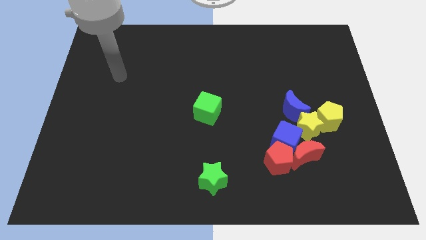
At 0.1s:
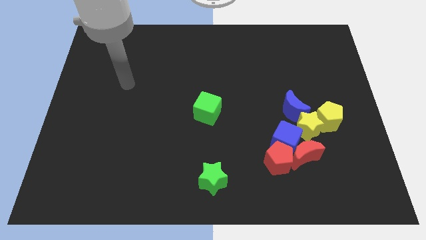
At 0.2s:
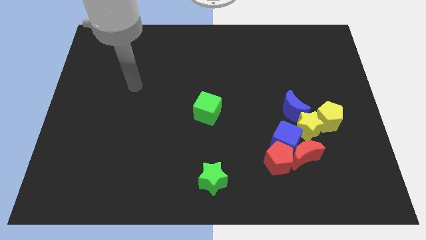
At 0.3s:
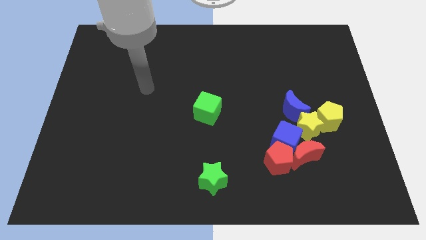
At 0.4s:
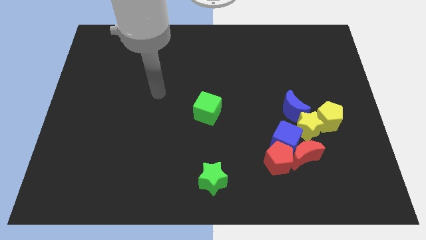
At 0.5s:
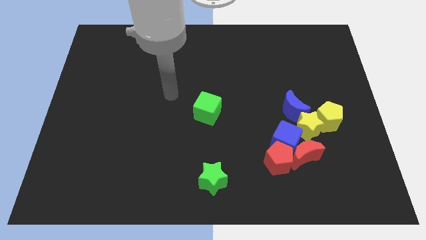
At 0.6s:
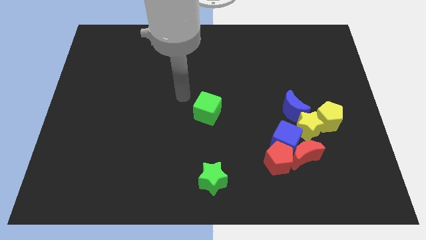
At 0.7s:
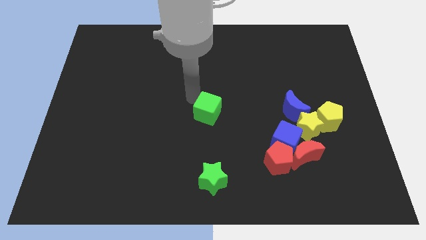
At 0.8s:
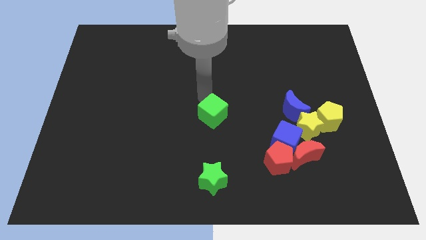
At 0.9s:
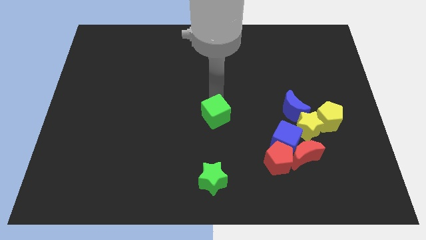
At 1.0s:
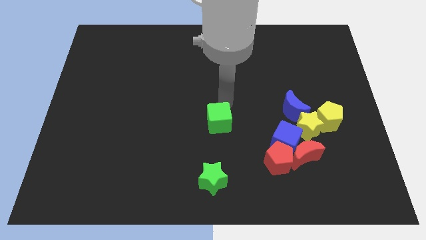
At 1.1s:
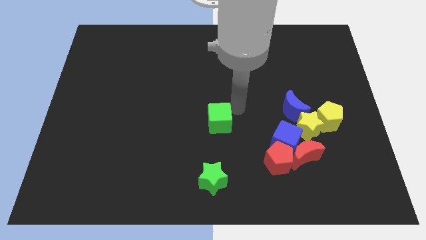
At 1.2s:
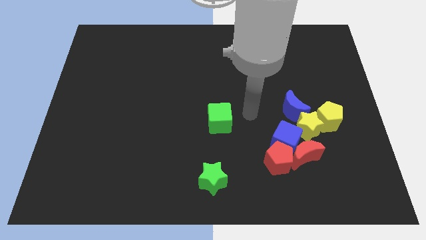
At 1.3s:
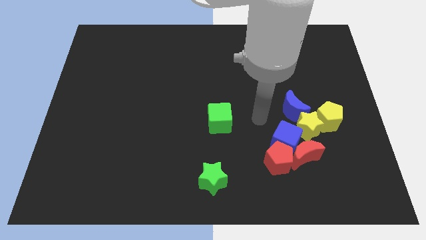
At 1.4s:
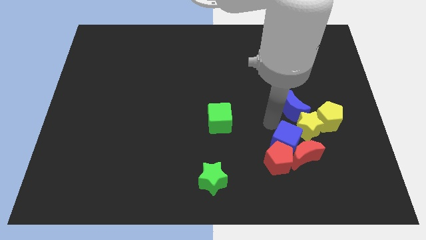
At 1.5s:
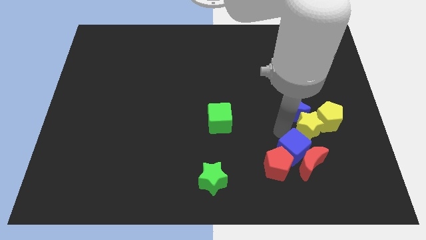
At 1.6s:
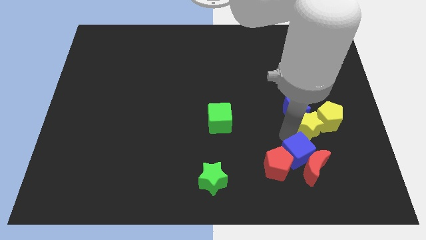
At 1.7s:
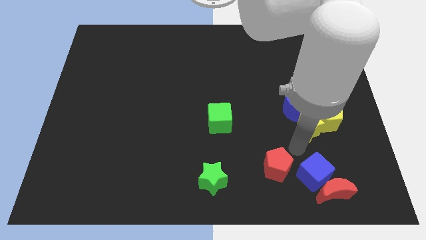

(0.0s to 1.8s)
move the red pentagon away from the blue cube and red moon

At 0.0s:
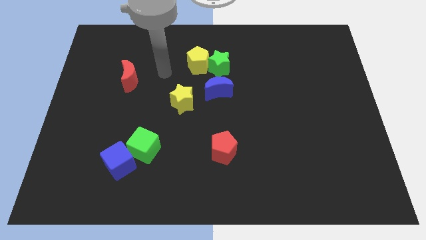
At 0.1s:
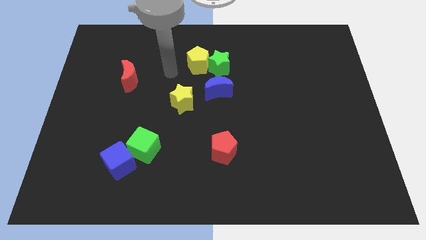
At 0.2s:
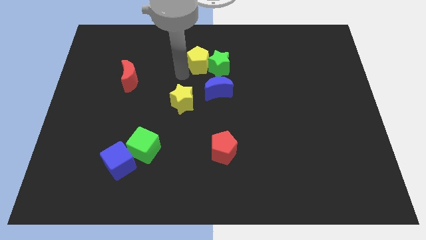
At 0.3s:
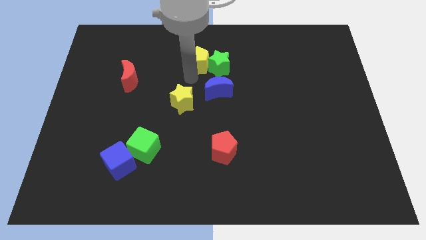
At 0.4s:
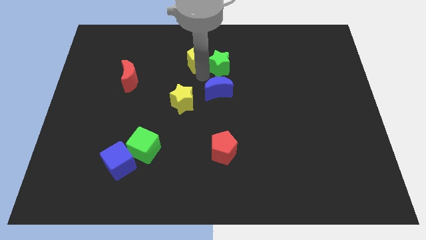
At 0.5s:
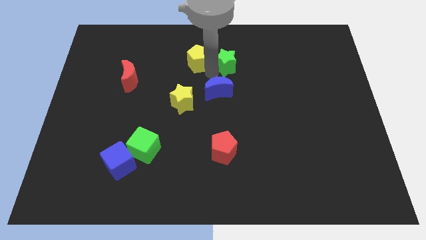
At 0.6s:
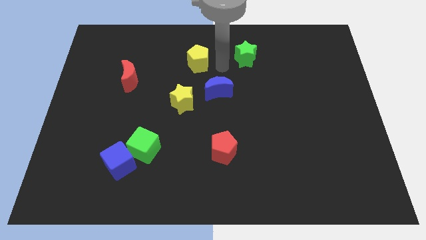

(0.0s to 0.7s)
separate the yellow pentagon from the green star

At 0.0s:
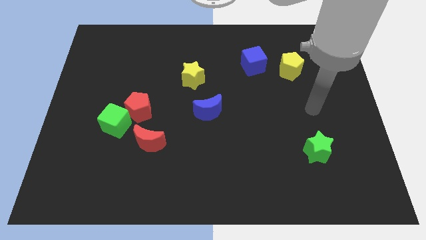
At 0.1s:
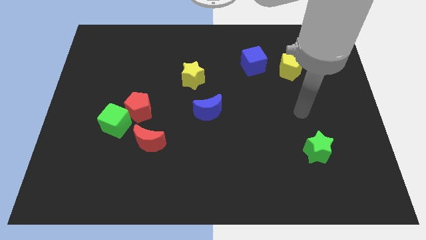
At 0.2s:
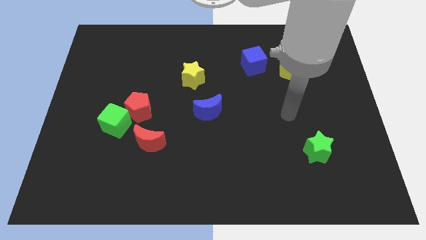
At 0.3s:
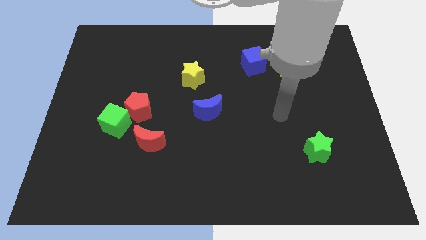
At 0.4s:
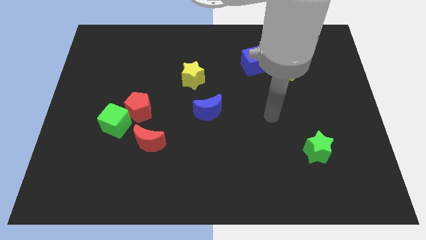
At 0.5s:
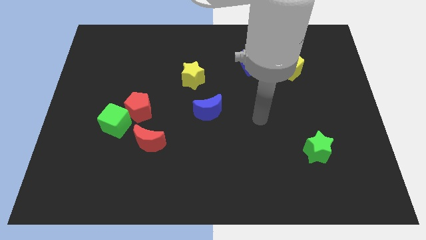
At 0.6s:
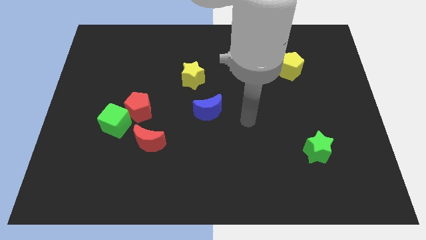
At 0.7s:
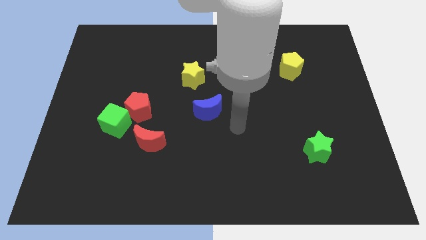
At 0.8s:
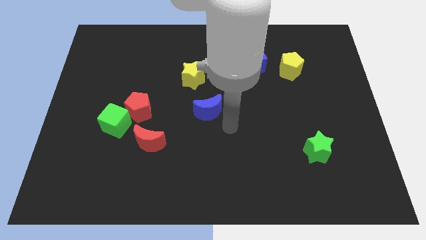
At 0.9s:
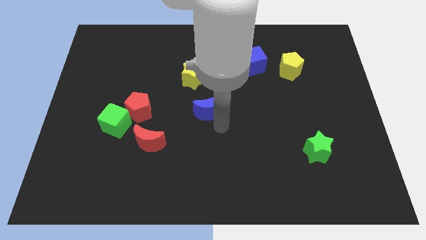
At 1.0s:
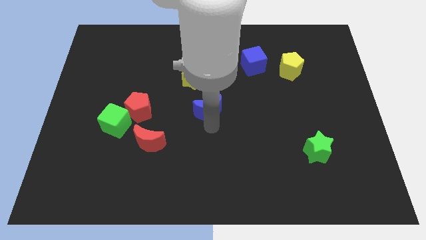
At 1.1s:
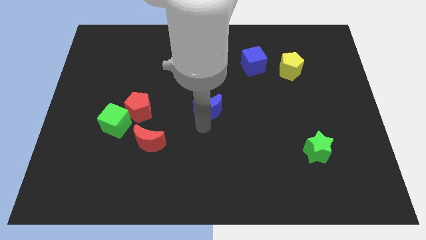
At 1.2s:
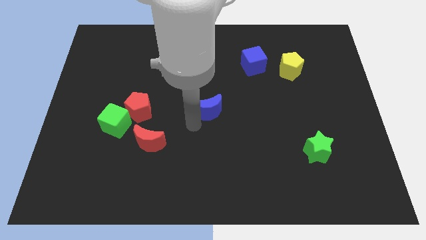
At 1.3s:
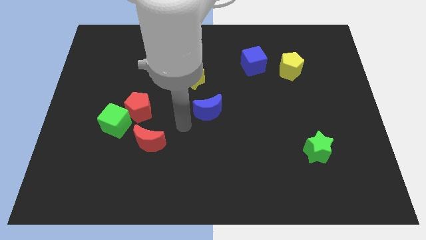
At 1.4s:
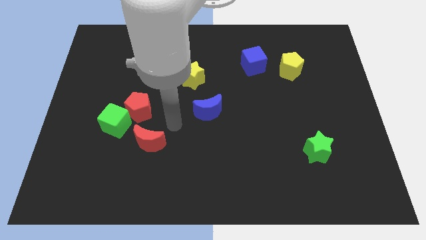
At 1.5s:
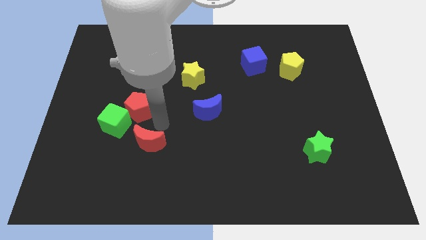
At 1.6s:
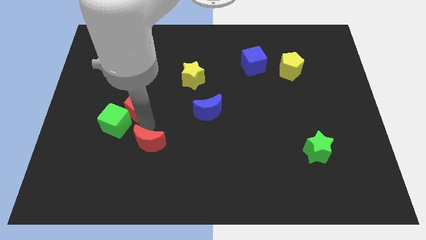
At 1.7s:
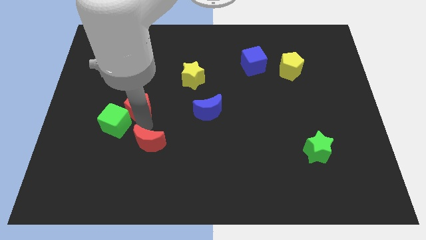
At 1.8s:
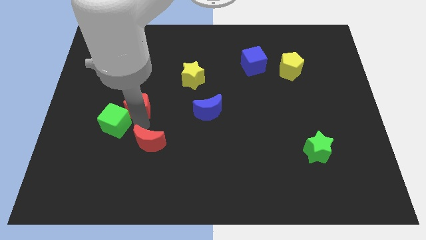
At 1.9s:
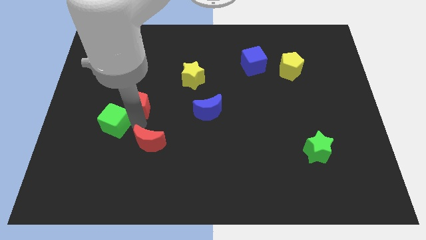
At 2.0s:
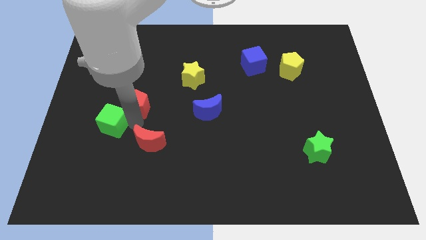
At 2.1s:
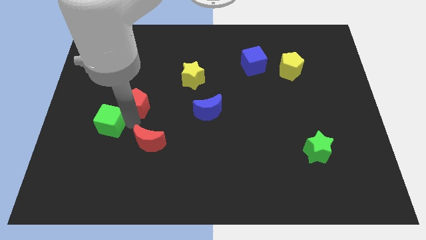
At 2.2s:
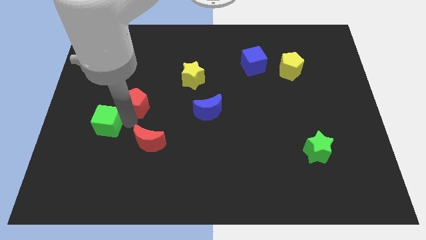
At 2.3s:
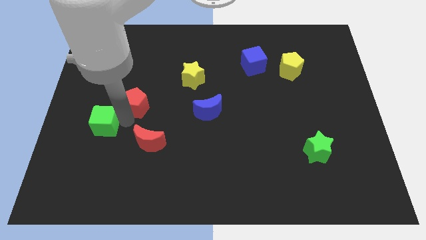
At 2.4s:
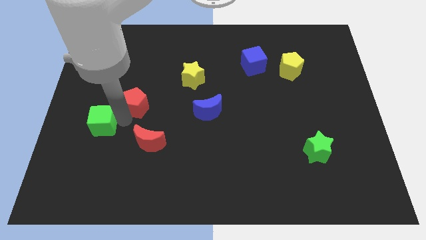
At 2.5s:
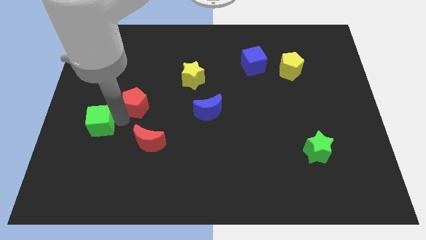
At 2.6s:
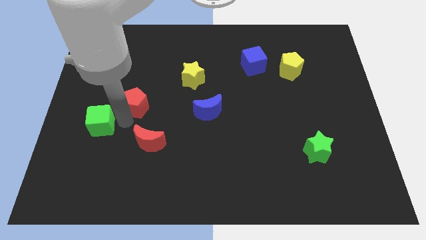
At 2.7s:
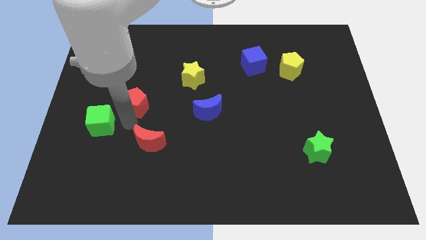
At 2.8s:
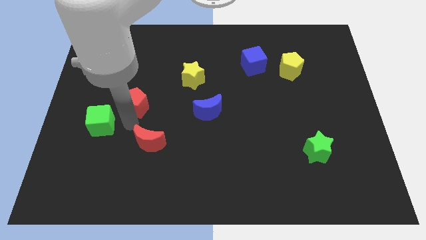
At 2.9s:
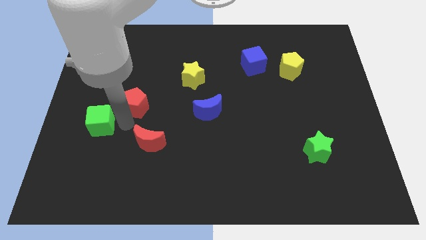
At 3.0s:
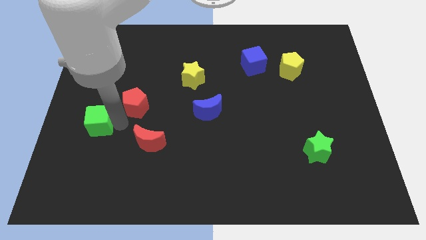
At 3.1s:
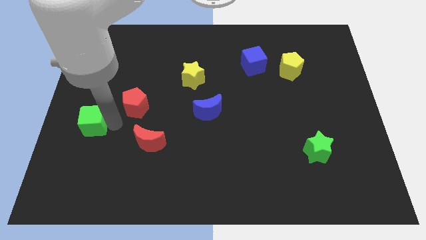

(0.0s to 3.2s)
pull the green cube apart from the red pentagon and red moon

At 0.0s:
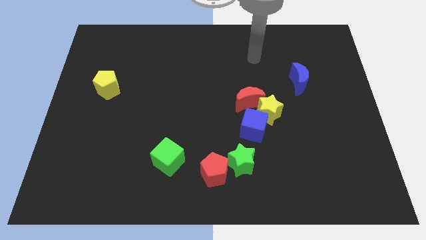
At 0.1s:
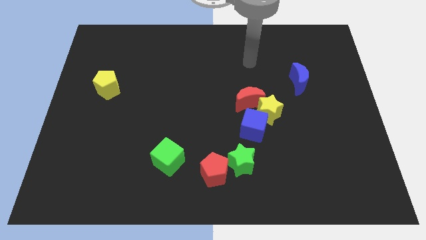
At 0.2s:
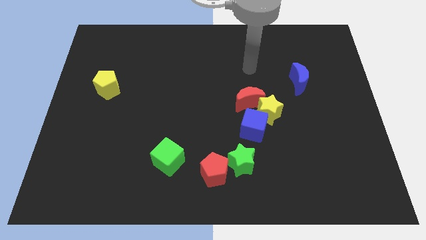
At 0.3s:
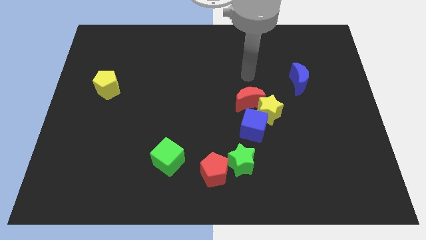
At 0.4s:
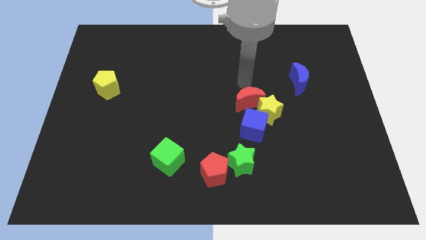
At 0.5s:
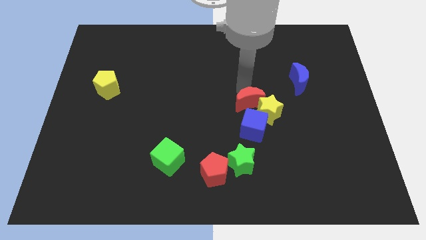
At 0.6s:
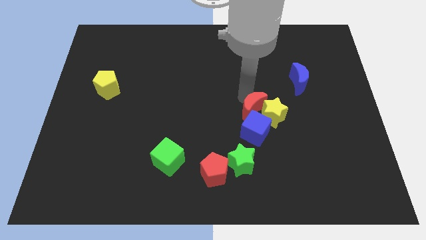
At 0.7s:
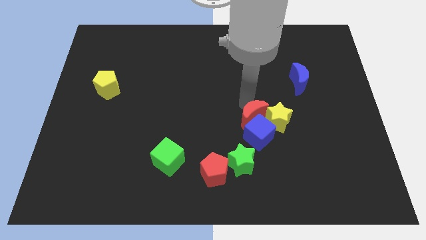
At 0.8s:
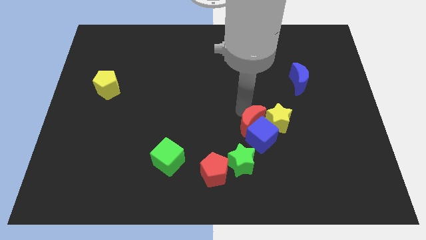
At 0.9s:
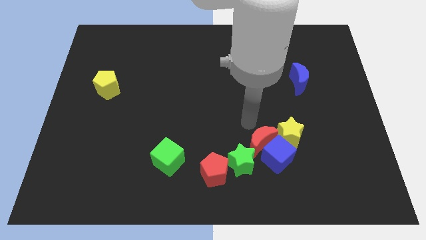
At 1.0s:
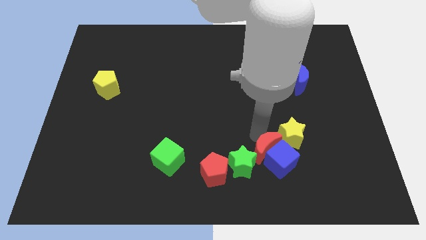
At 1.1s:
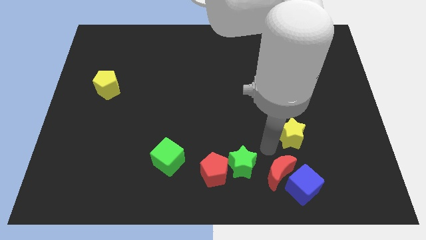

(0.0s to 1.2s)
pull the yellow star apart from the blue cube and red moon

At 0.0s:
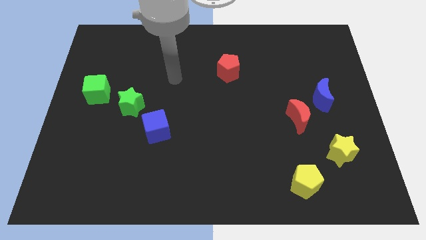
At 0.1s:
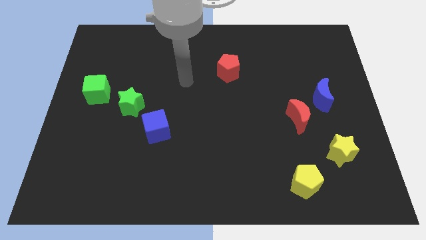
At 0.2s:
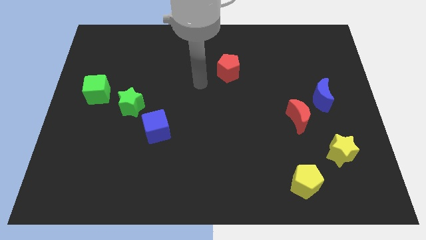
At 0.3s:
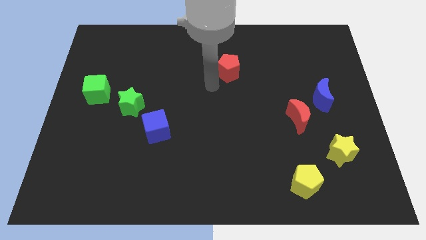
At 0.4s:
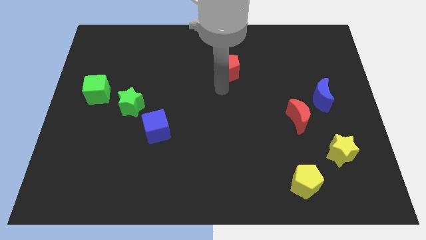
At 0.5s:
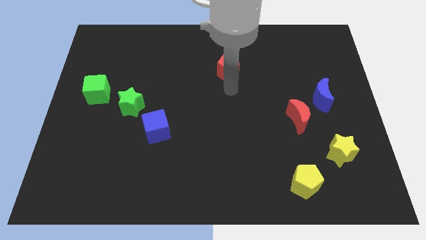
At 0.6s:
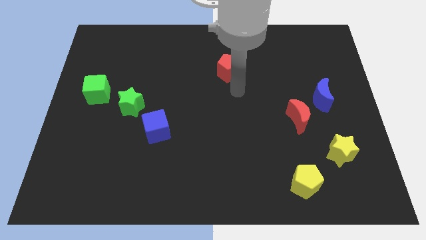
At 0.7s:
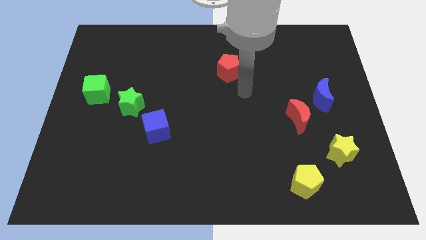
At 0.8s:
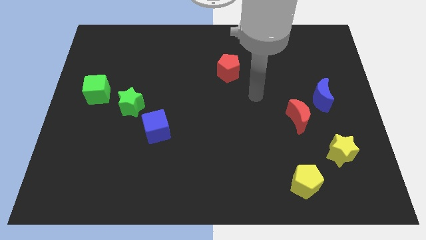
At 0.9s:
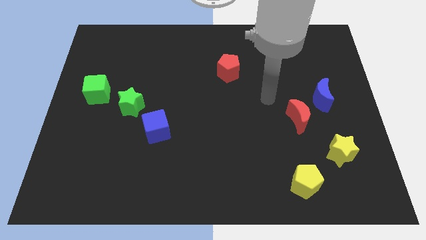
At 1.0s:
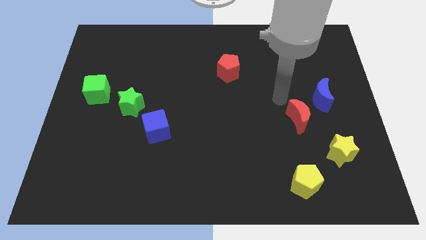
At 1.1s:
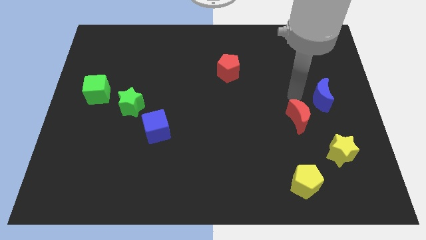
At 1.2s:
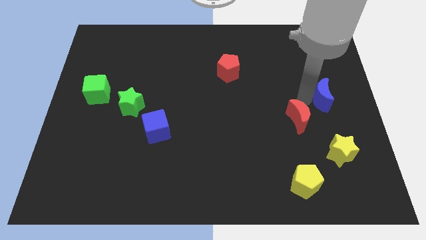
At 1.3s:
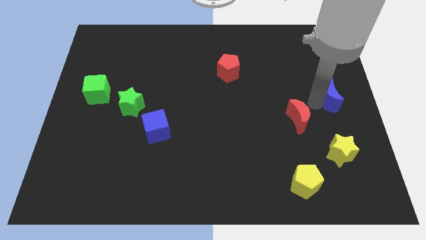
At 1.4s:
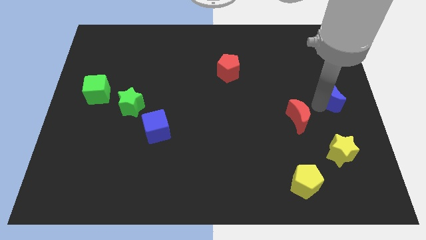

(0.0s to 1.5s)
move the red moon away from the blue moon

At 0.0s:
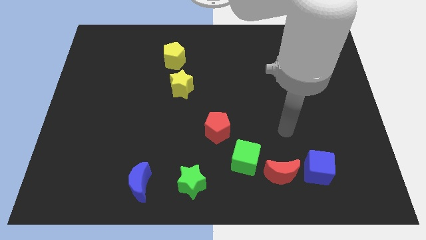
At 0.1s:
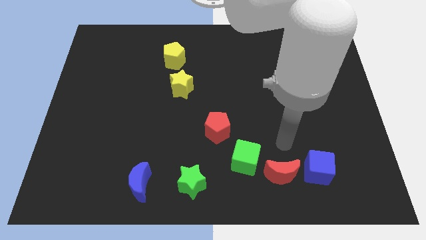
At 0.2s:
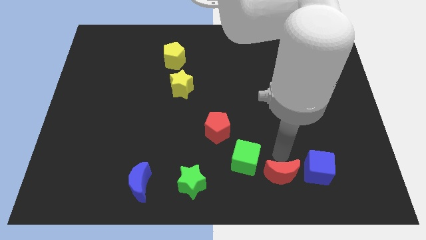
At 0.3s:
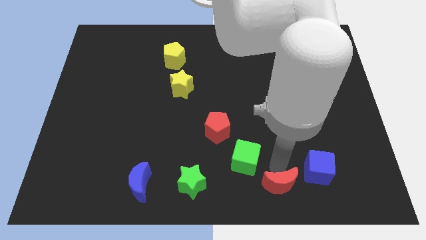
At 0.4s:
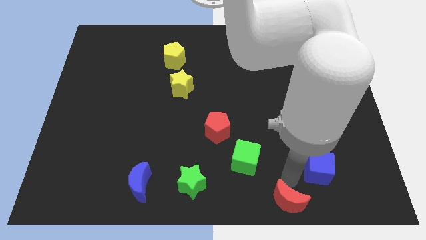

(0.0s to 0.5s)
pull the blue cube apart from the red moon

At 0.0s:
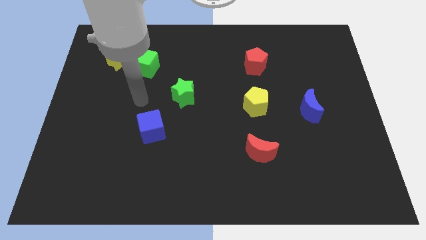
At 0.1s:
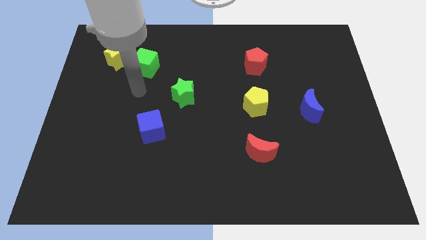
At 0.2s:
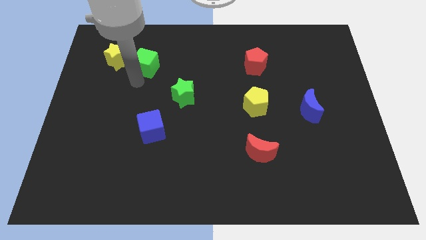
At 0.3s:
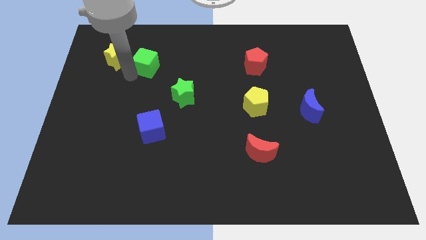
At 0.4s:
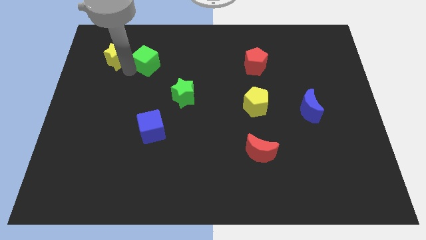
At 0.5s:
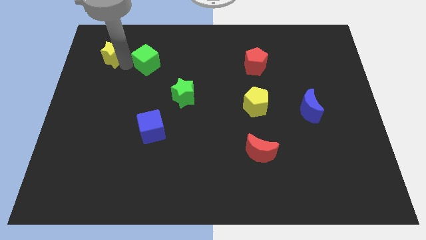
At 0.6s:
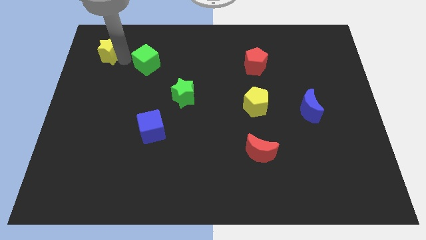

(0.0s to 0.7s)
pull the green cube apart from the yellow star
